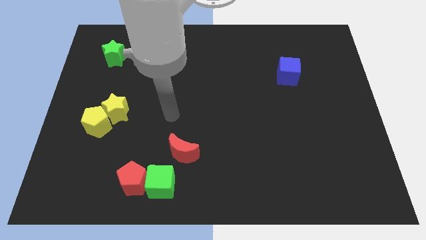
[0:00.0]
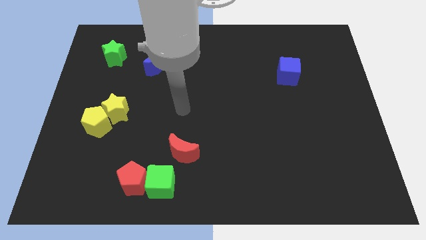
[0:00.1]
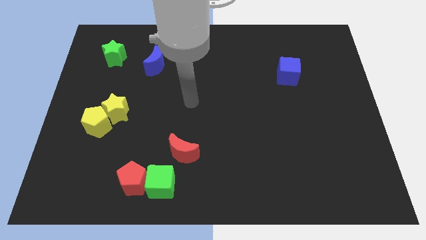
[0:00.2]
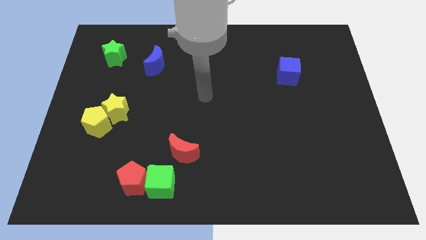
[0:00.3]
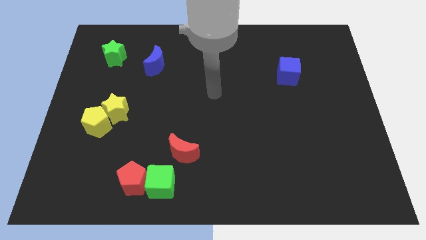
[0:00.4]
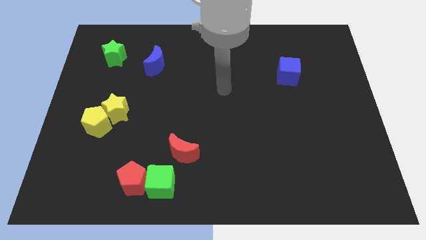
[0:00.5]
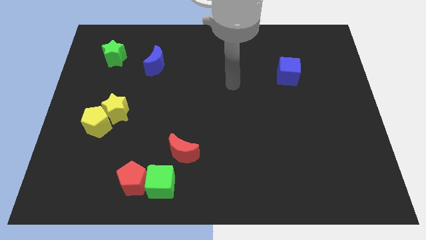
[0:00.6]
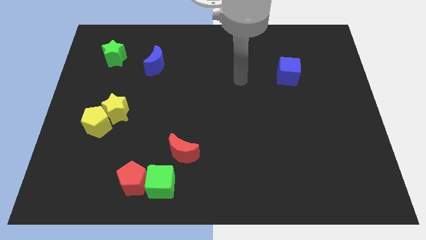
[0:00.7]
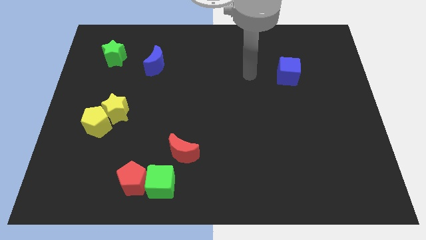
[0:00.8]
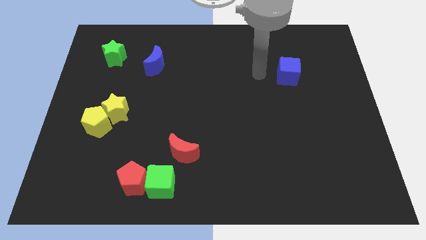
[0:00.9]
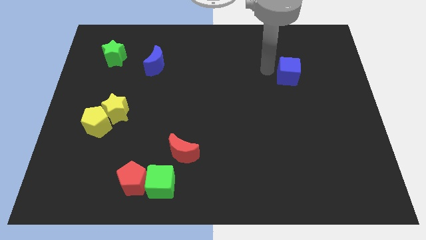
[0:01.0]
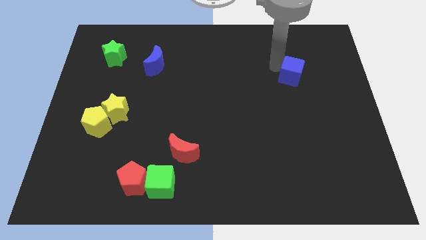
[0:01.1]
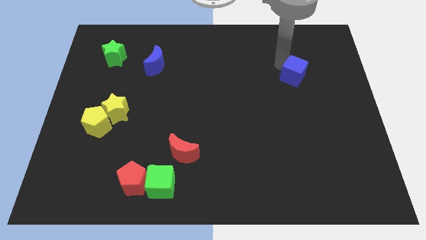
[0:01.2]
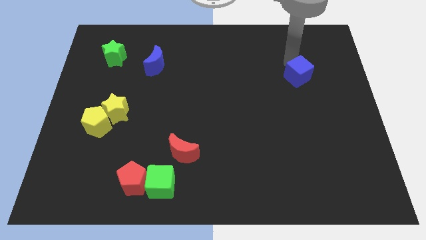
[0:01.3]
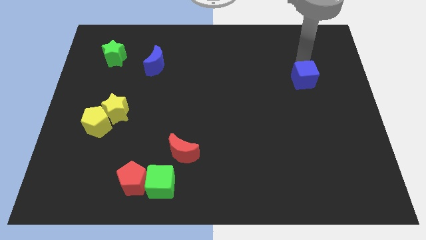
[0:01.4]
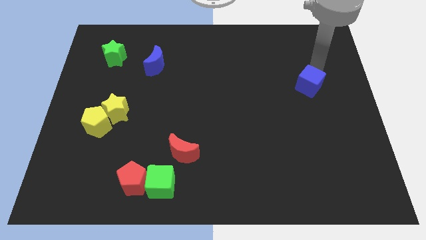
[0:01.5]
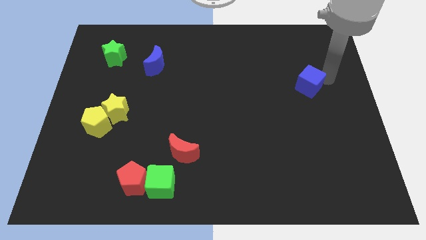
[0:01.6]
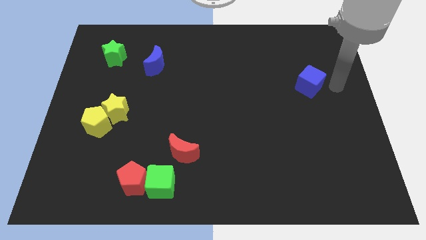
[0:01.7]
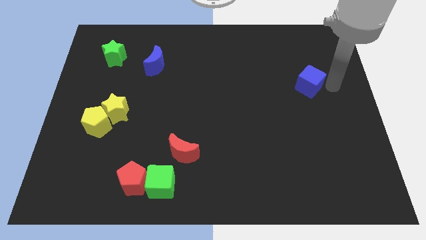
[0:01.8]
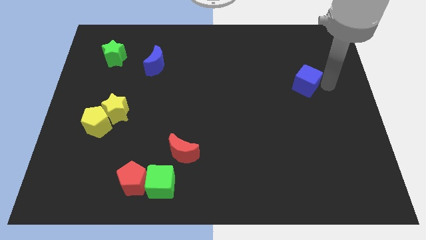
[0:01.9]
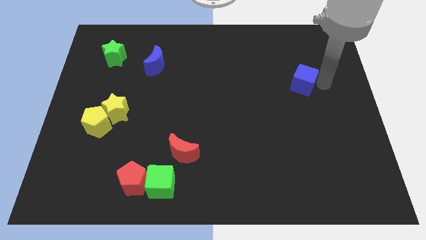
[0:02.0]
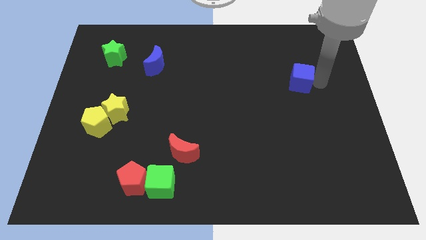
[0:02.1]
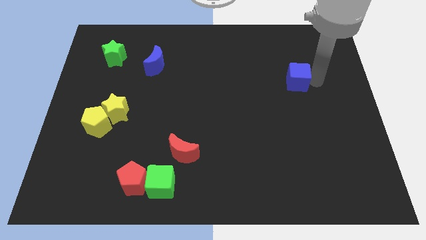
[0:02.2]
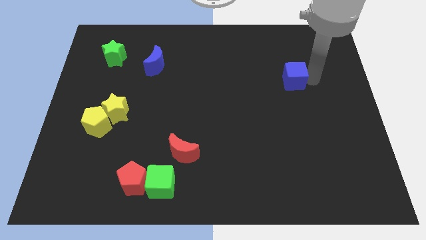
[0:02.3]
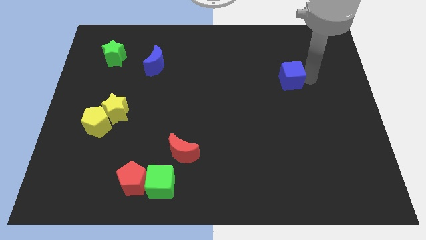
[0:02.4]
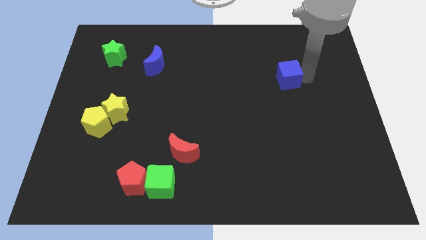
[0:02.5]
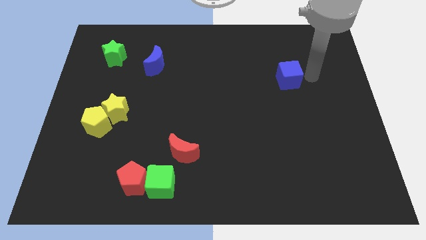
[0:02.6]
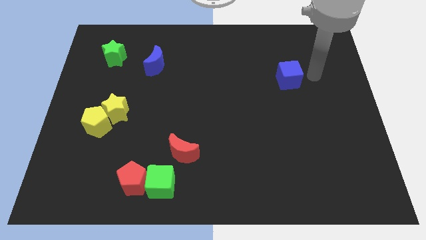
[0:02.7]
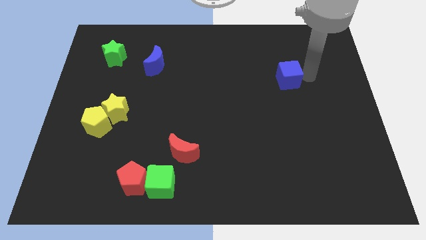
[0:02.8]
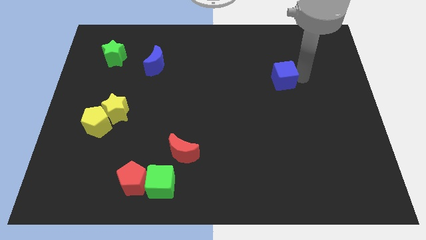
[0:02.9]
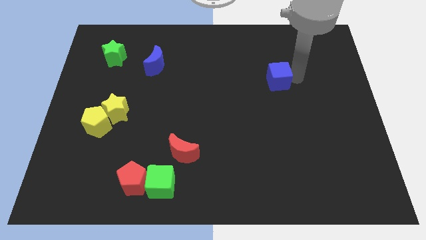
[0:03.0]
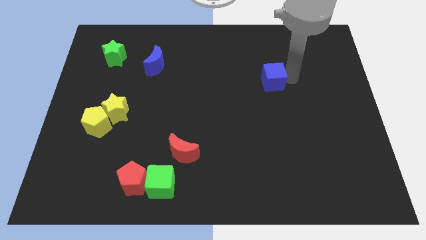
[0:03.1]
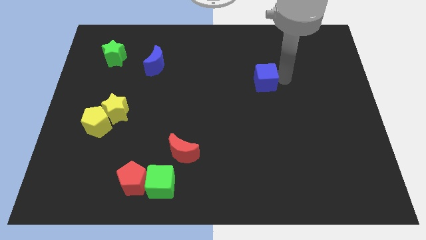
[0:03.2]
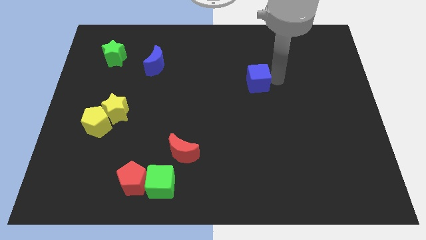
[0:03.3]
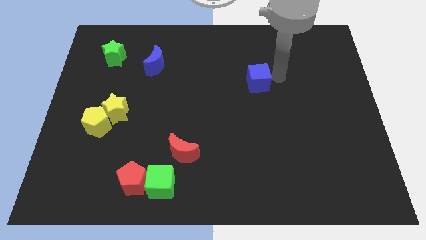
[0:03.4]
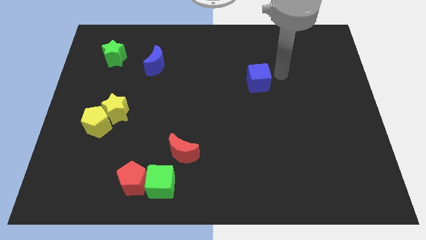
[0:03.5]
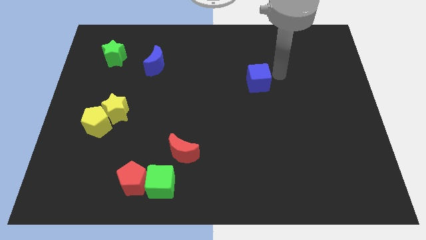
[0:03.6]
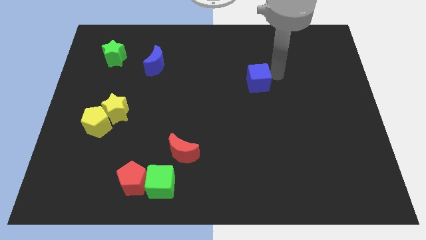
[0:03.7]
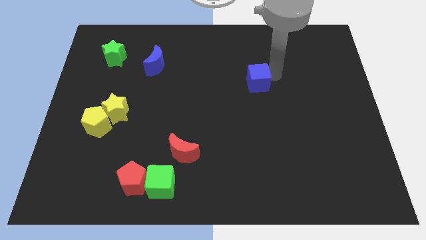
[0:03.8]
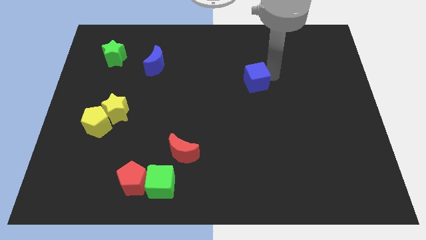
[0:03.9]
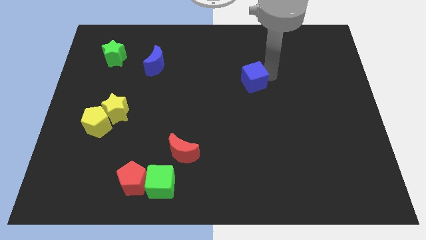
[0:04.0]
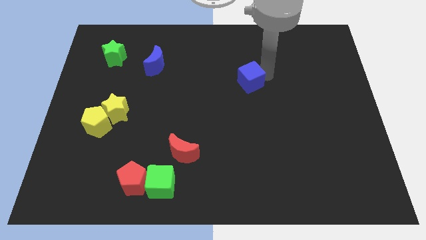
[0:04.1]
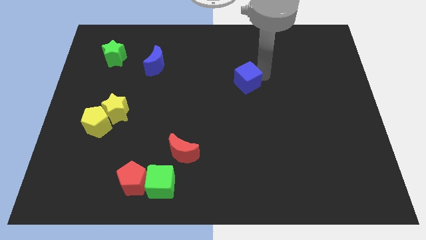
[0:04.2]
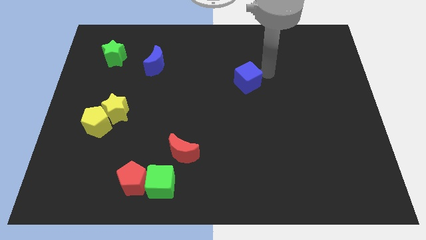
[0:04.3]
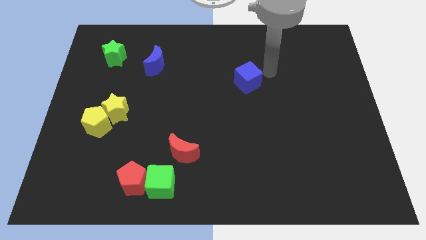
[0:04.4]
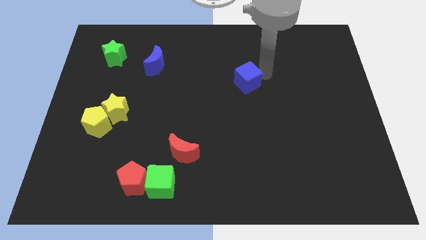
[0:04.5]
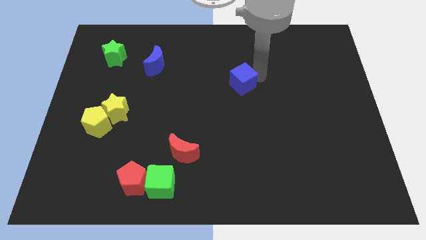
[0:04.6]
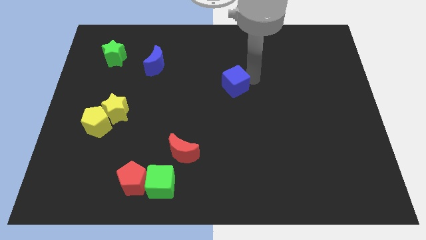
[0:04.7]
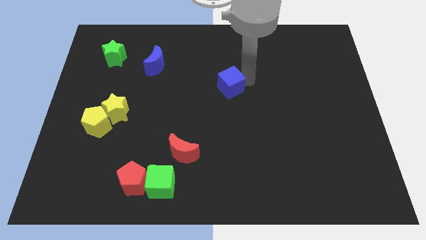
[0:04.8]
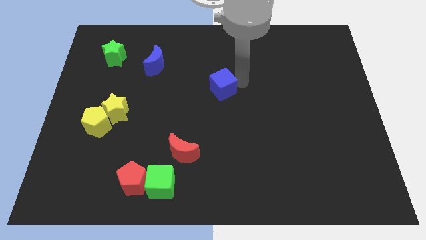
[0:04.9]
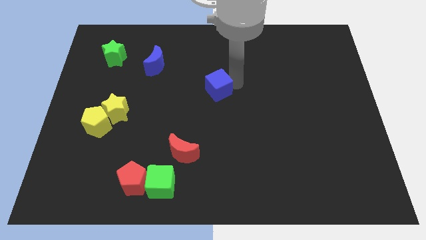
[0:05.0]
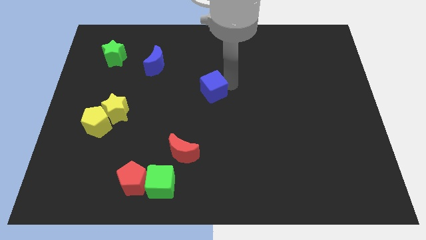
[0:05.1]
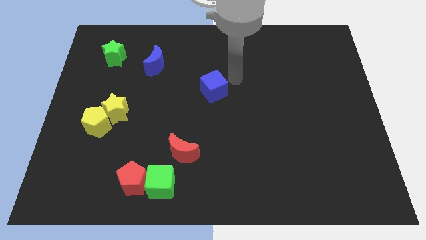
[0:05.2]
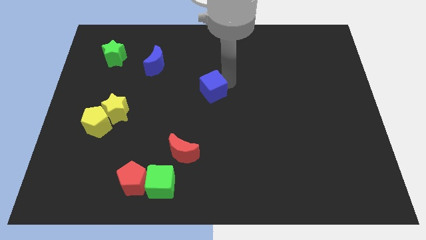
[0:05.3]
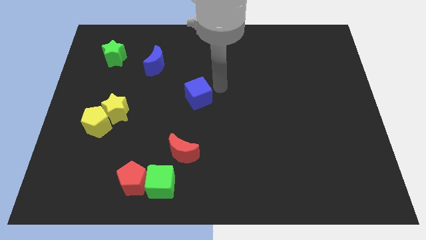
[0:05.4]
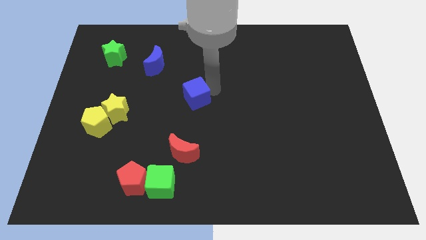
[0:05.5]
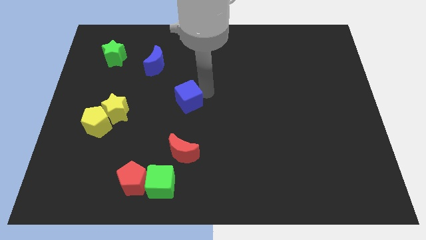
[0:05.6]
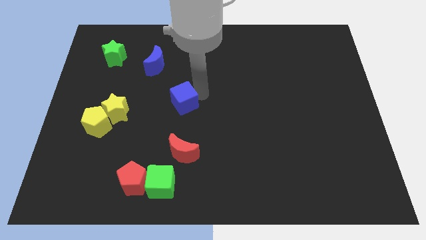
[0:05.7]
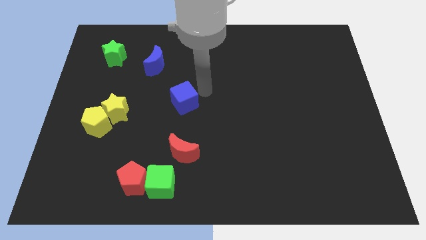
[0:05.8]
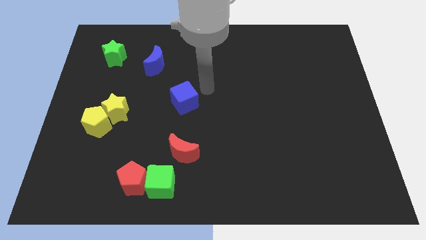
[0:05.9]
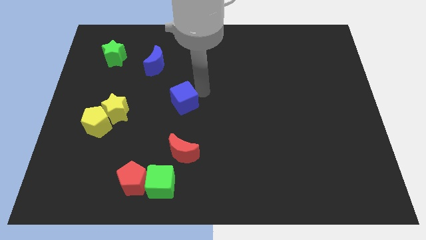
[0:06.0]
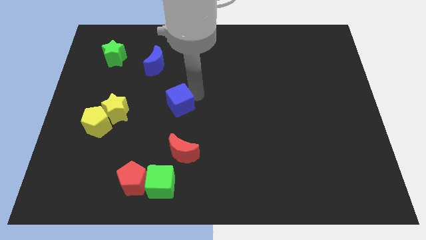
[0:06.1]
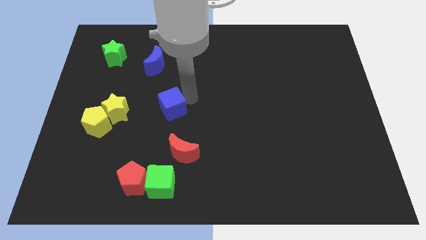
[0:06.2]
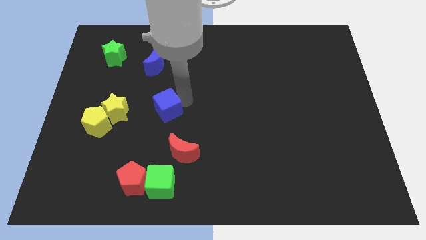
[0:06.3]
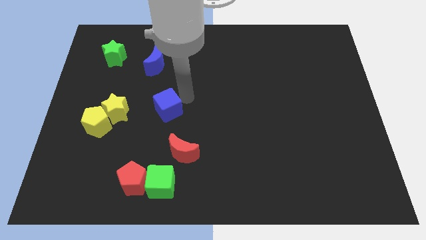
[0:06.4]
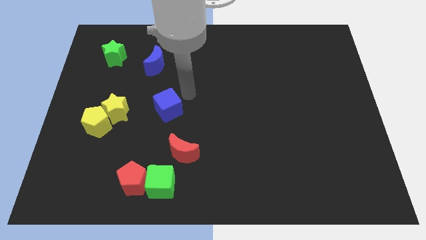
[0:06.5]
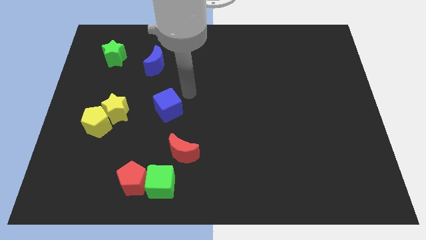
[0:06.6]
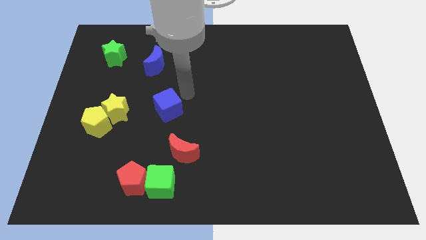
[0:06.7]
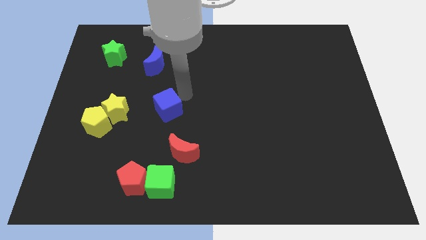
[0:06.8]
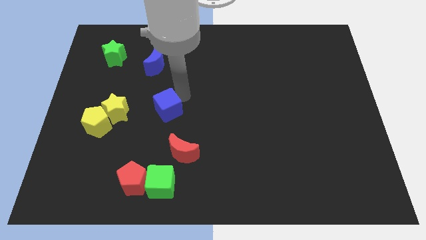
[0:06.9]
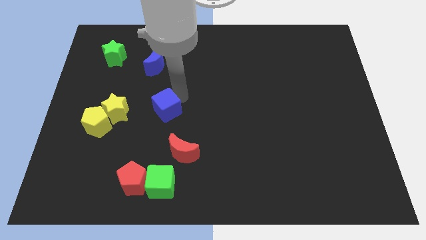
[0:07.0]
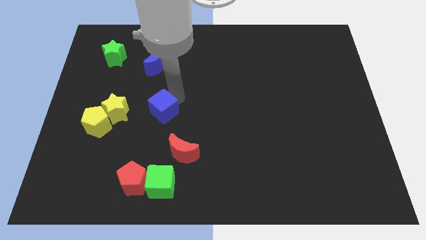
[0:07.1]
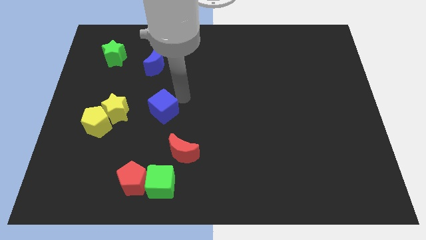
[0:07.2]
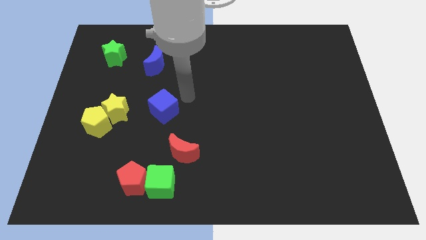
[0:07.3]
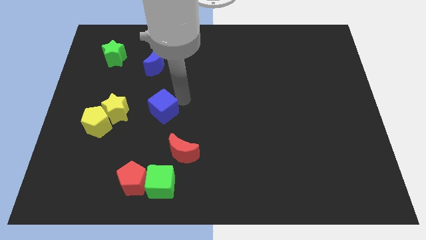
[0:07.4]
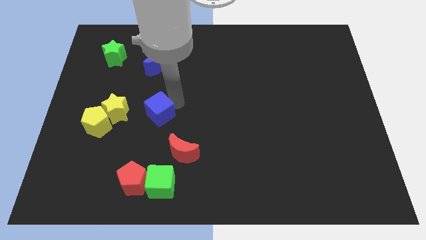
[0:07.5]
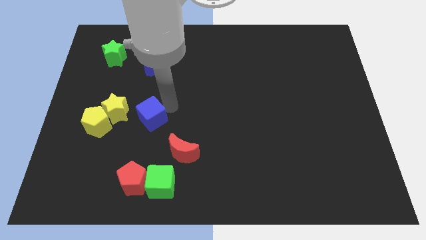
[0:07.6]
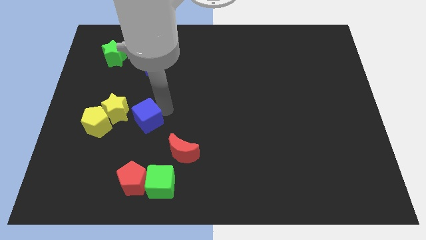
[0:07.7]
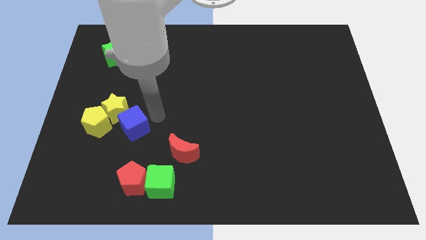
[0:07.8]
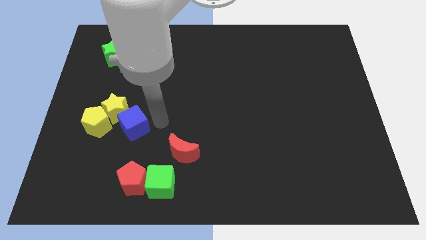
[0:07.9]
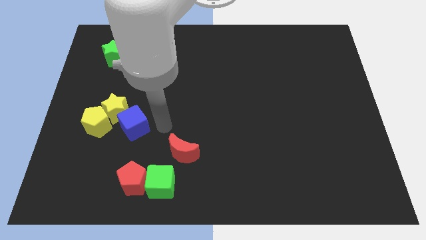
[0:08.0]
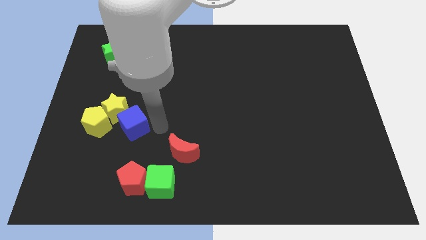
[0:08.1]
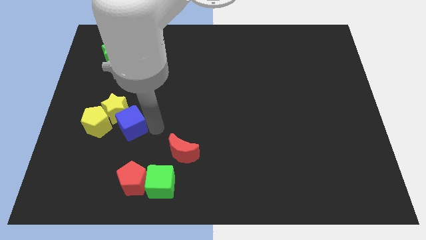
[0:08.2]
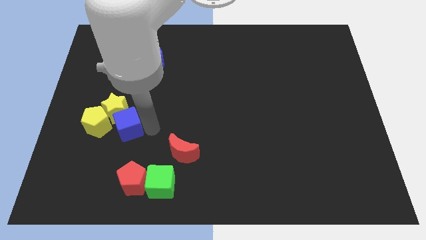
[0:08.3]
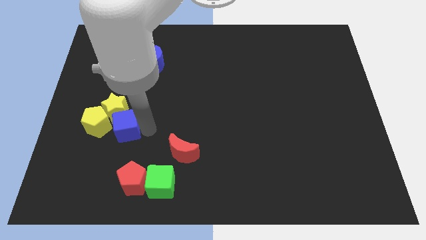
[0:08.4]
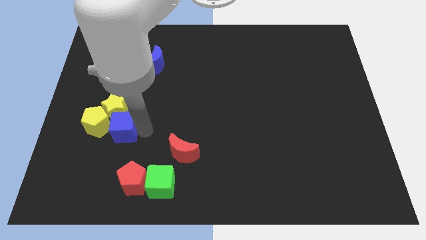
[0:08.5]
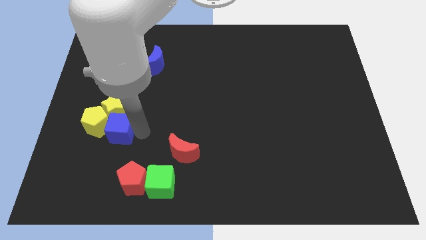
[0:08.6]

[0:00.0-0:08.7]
push the blue cube towards the yellow pentagon
